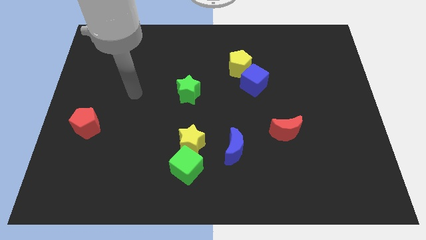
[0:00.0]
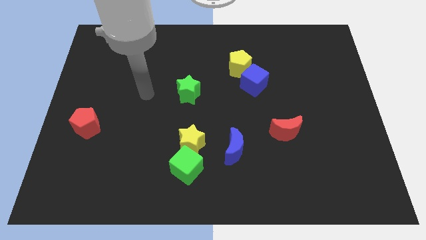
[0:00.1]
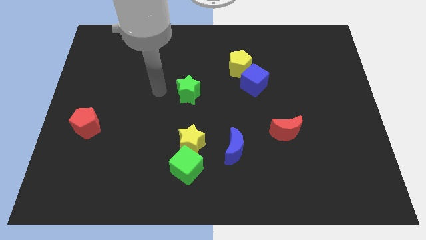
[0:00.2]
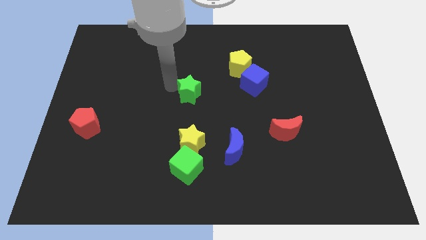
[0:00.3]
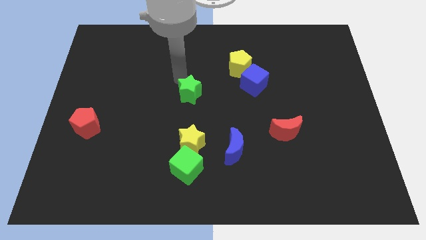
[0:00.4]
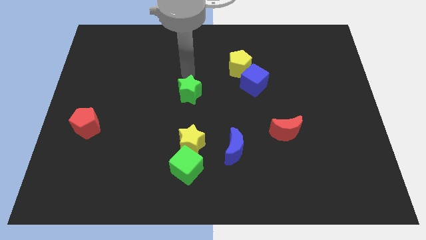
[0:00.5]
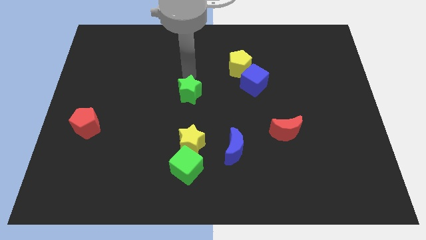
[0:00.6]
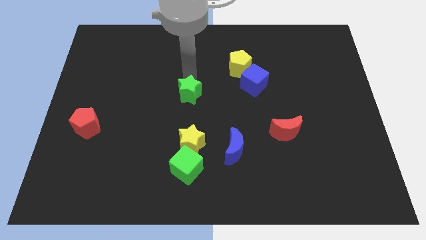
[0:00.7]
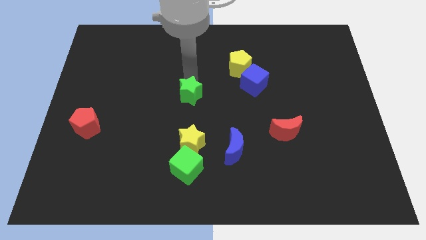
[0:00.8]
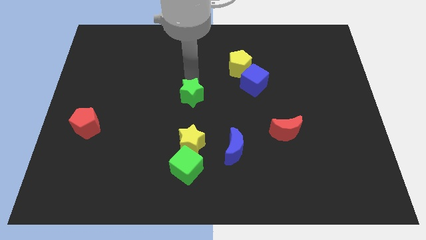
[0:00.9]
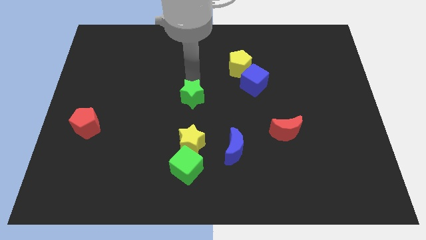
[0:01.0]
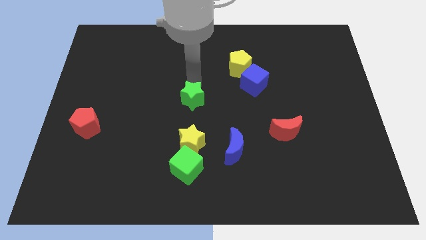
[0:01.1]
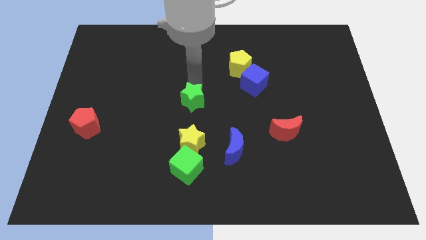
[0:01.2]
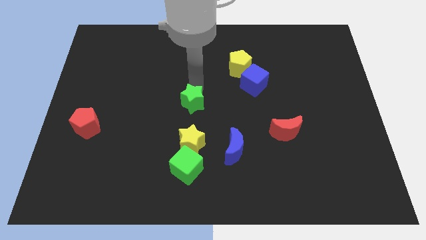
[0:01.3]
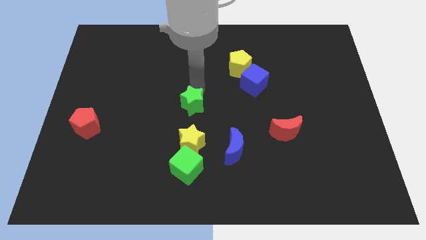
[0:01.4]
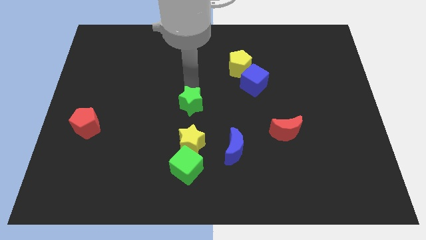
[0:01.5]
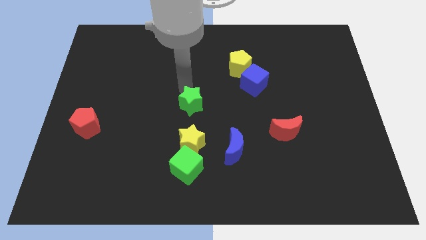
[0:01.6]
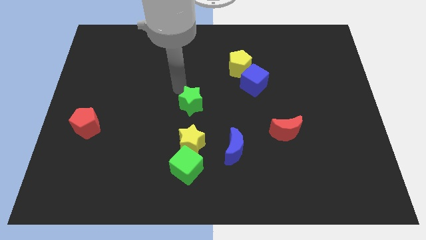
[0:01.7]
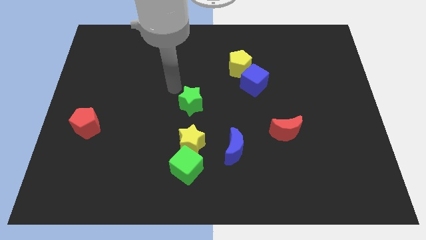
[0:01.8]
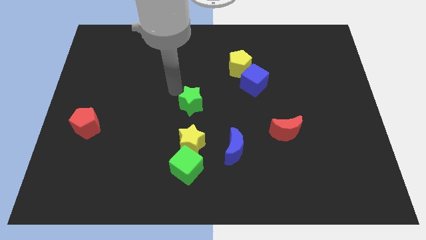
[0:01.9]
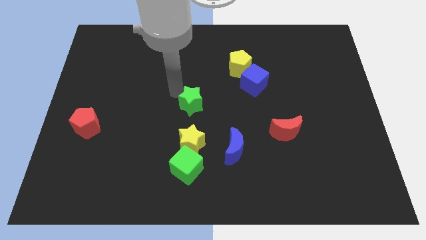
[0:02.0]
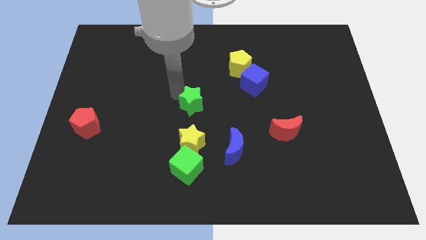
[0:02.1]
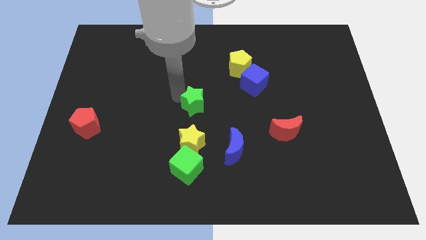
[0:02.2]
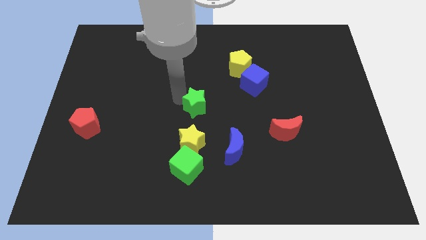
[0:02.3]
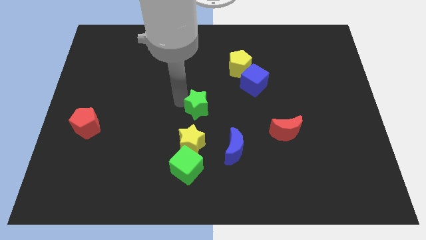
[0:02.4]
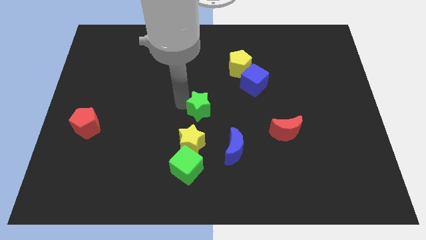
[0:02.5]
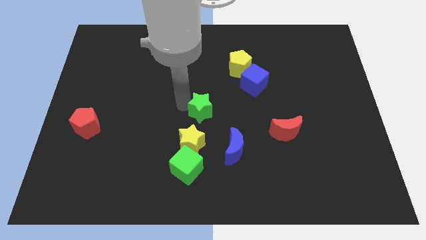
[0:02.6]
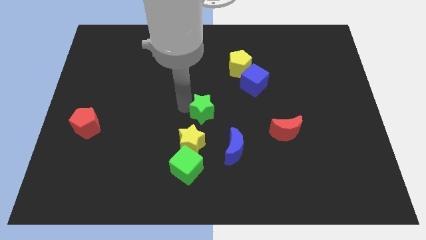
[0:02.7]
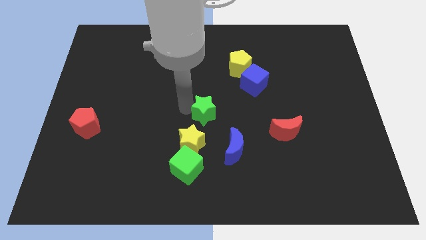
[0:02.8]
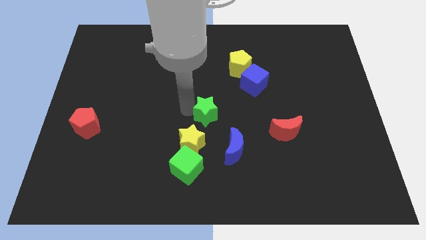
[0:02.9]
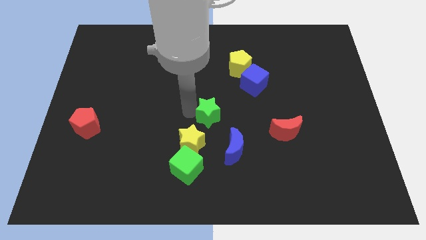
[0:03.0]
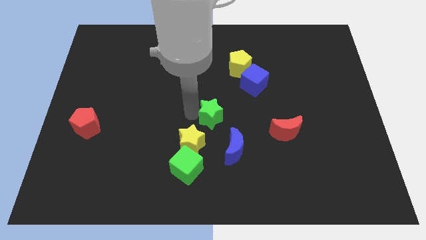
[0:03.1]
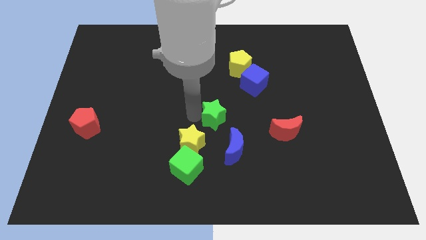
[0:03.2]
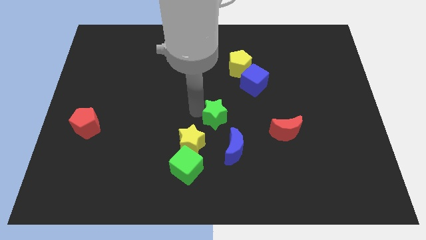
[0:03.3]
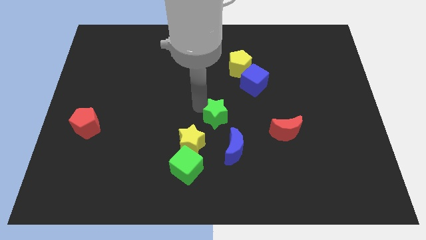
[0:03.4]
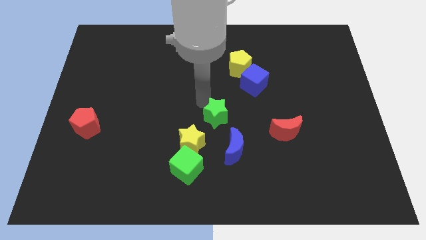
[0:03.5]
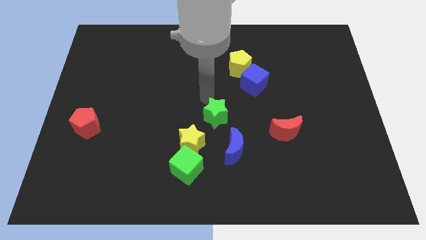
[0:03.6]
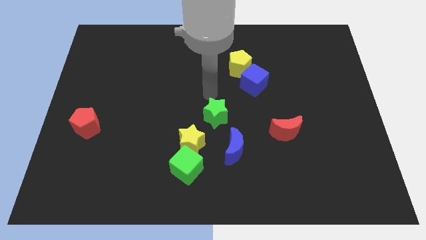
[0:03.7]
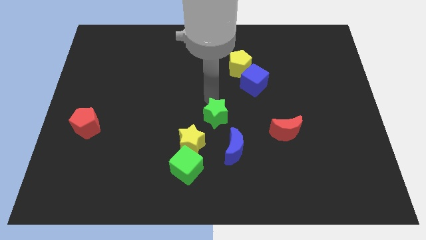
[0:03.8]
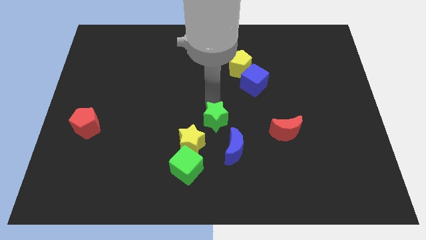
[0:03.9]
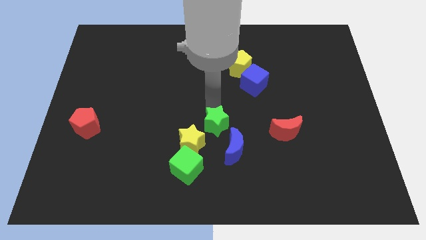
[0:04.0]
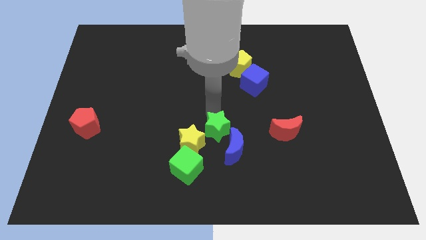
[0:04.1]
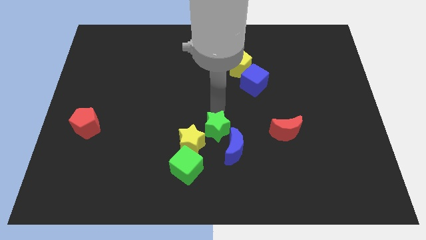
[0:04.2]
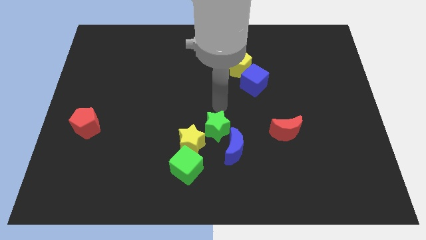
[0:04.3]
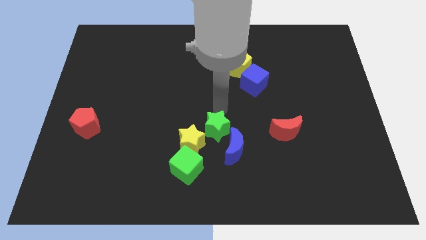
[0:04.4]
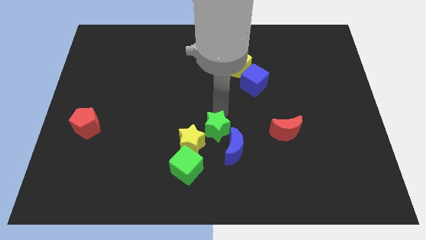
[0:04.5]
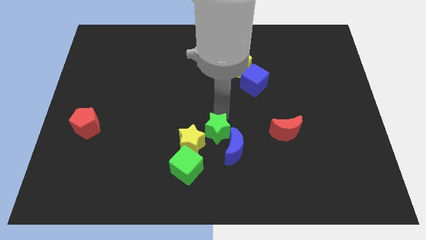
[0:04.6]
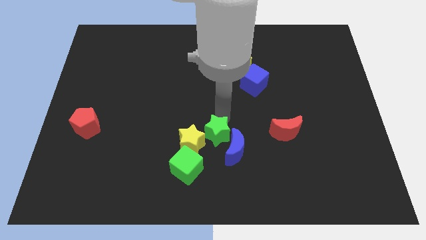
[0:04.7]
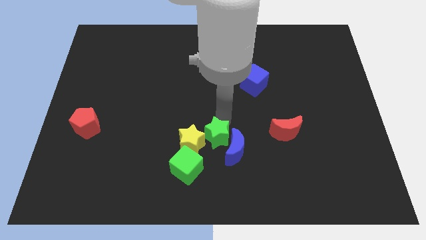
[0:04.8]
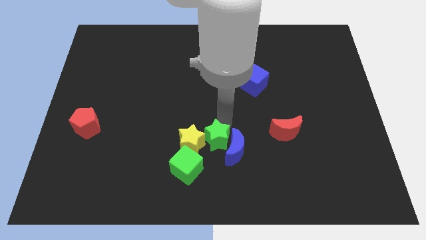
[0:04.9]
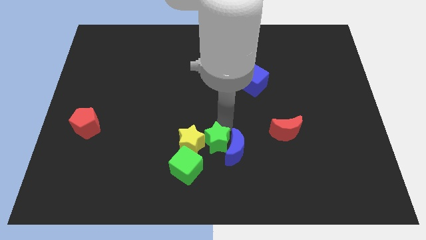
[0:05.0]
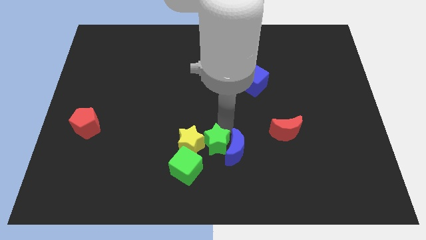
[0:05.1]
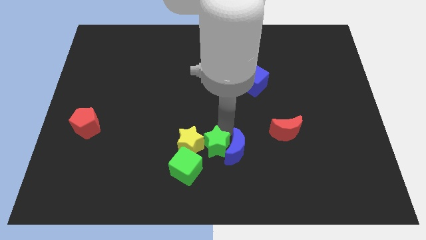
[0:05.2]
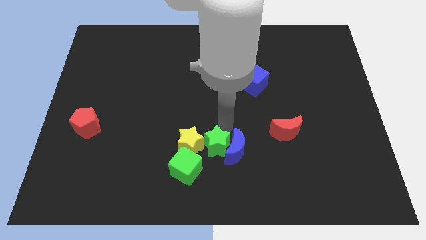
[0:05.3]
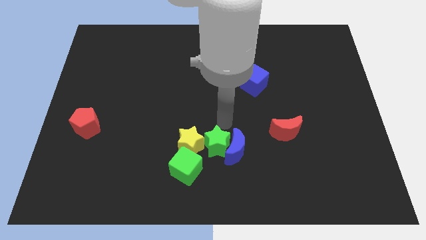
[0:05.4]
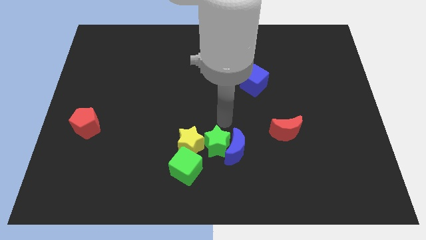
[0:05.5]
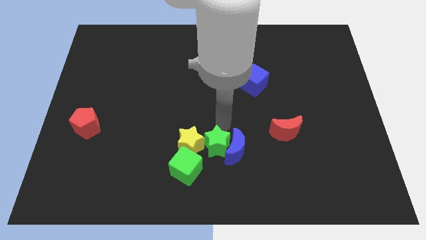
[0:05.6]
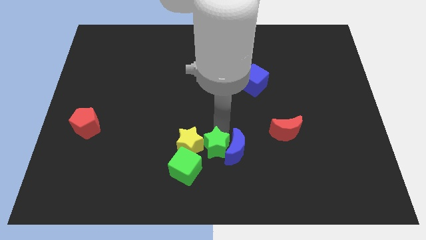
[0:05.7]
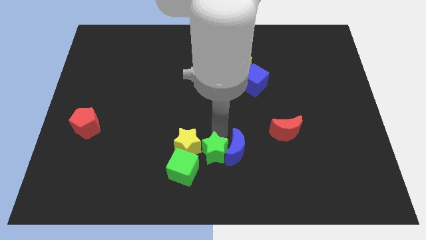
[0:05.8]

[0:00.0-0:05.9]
push the green star to the right of the green cube

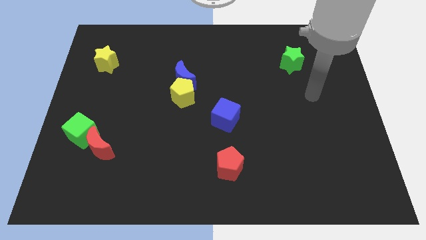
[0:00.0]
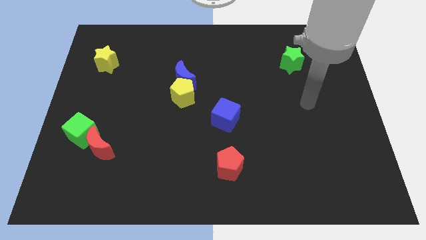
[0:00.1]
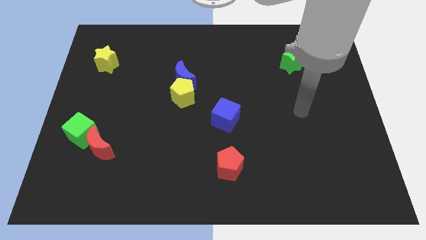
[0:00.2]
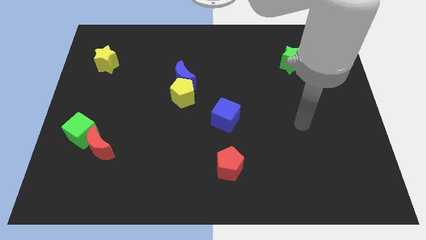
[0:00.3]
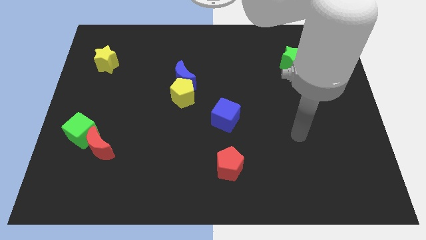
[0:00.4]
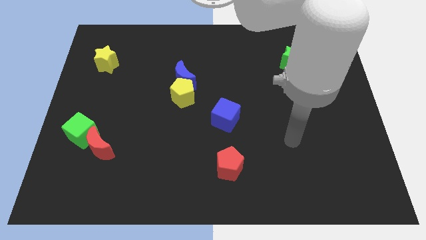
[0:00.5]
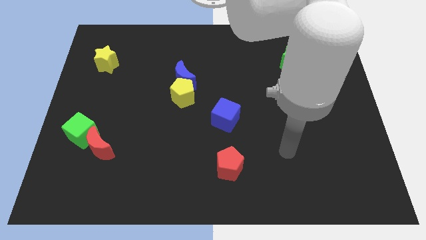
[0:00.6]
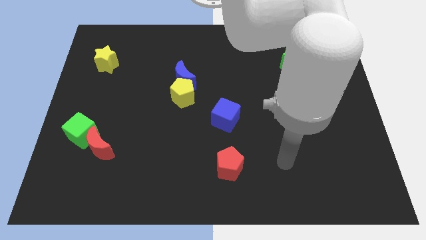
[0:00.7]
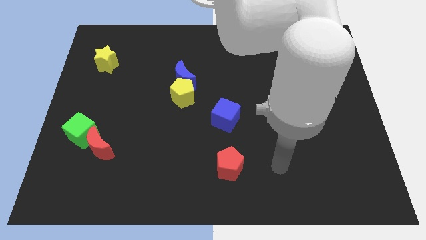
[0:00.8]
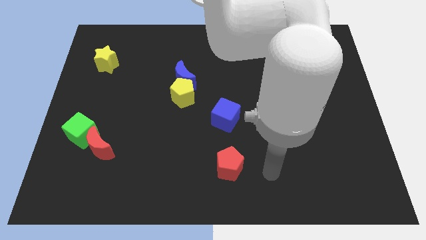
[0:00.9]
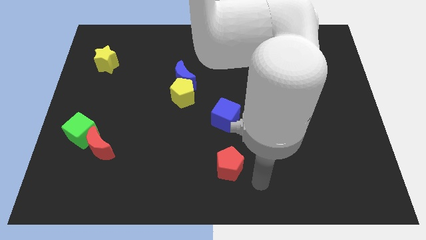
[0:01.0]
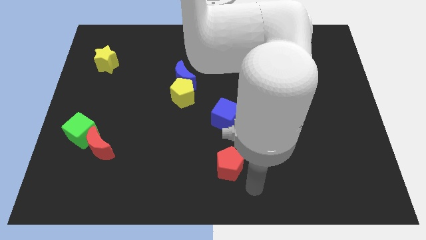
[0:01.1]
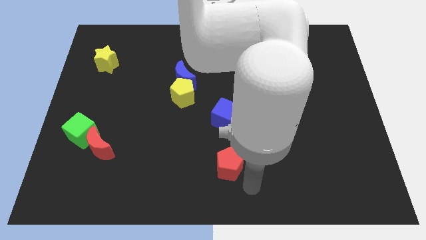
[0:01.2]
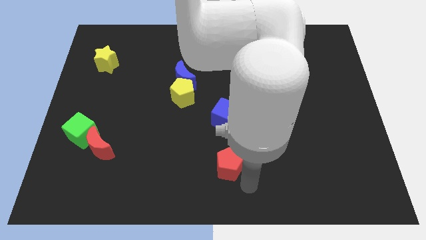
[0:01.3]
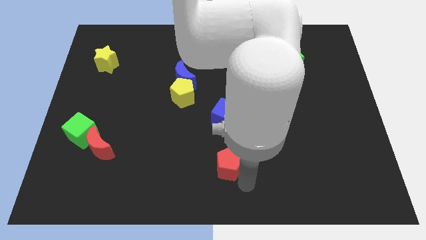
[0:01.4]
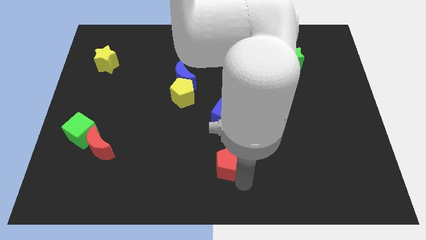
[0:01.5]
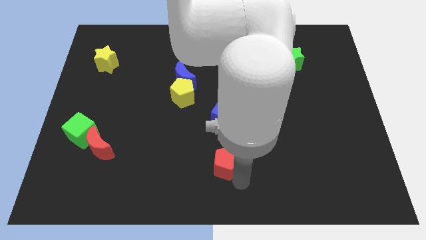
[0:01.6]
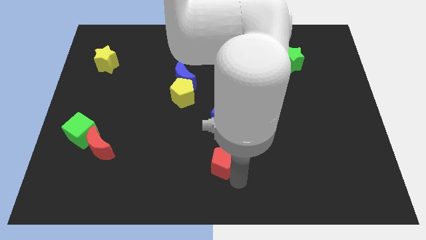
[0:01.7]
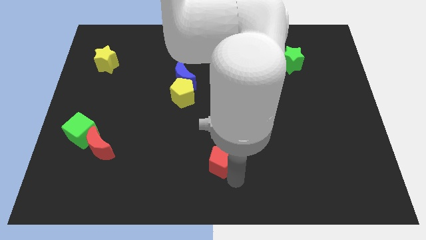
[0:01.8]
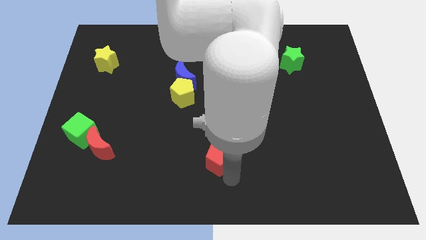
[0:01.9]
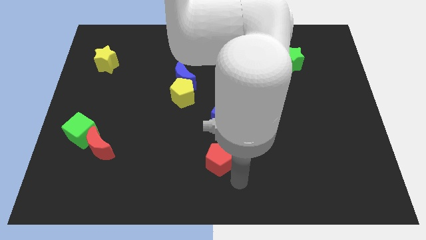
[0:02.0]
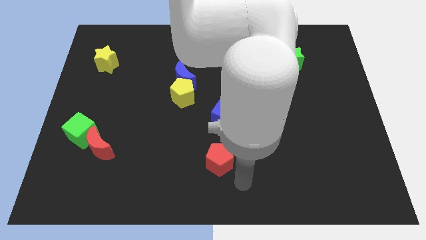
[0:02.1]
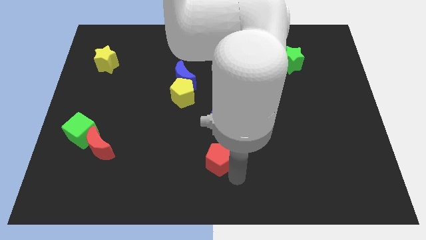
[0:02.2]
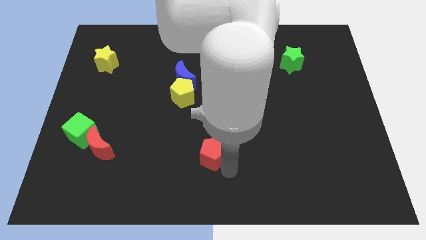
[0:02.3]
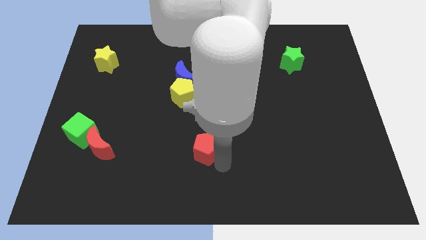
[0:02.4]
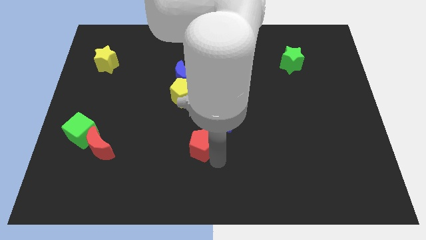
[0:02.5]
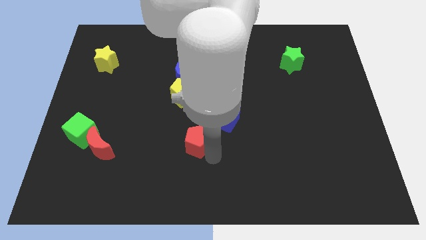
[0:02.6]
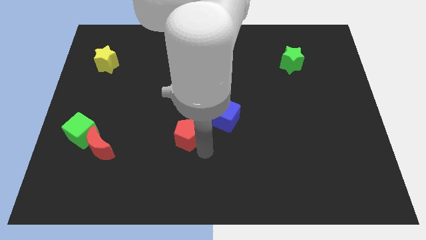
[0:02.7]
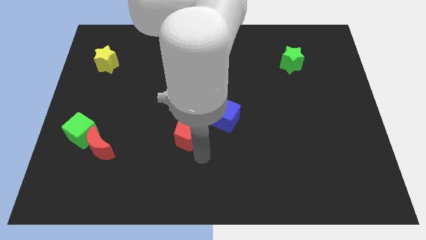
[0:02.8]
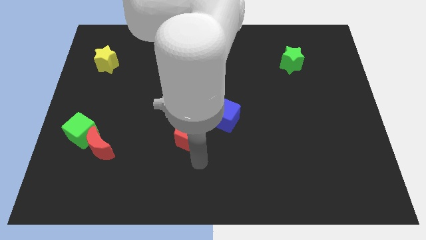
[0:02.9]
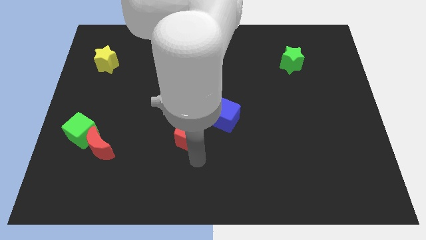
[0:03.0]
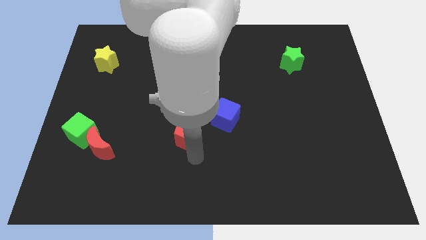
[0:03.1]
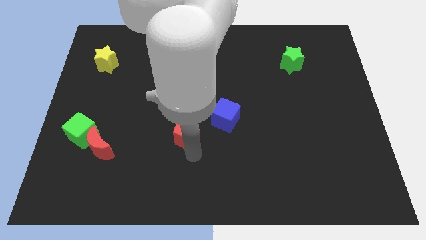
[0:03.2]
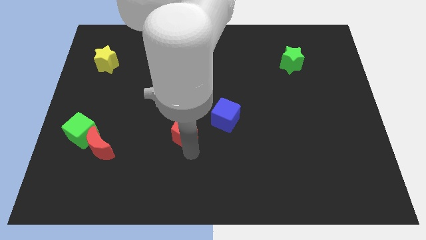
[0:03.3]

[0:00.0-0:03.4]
push the red pentagon to the left side of the blue cube
